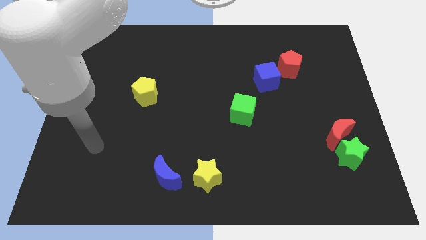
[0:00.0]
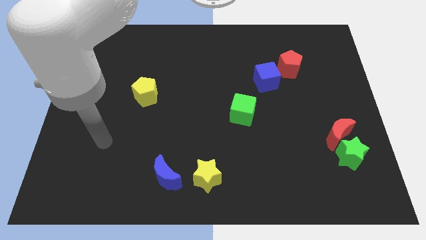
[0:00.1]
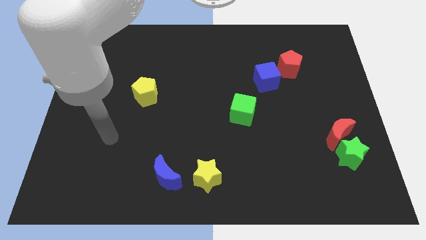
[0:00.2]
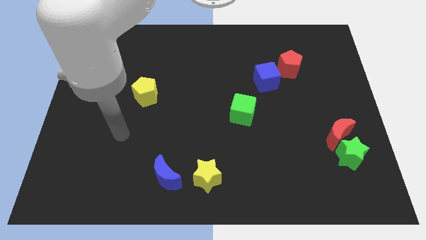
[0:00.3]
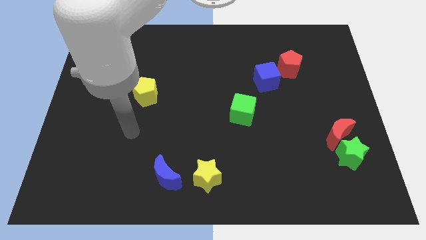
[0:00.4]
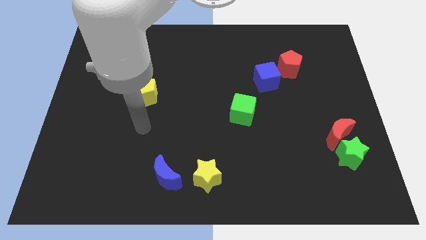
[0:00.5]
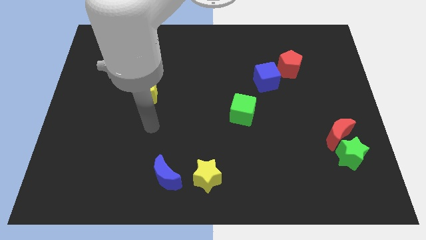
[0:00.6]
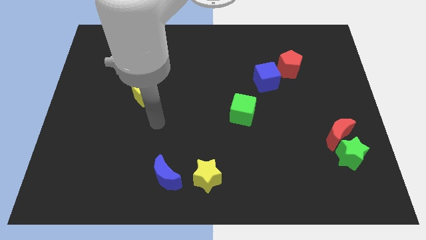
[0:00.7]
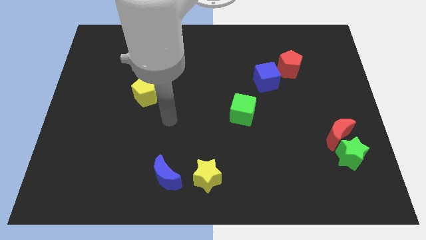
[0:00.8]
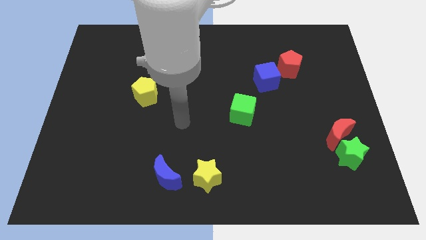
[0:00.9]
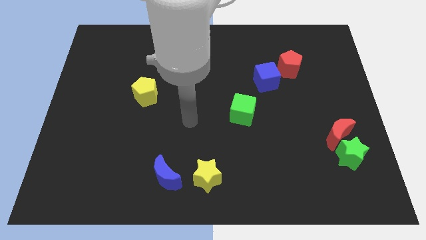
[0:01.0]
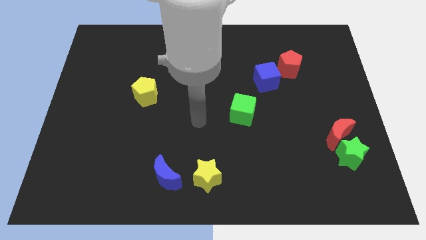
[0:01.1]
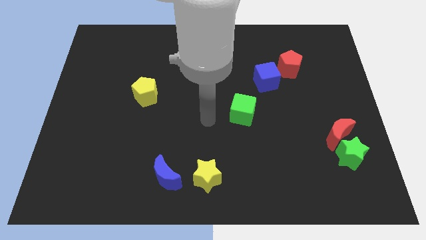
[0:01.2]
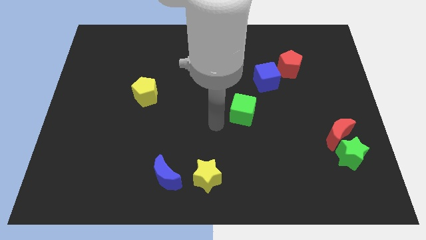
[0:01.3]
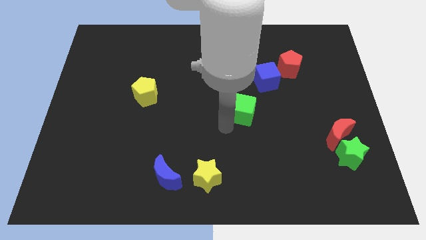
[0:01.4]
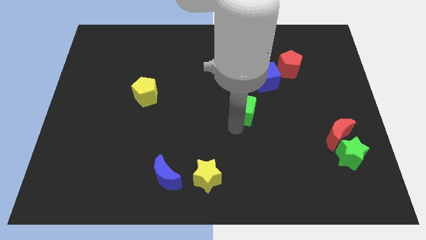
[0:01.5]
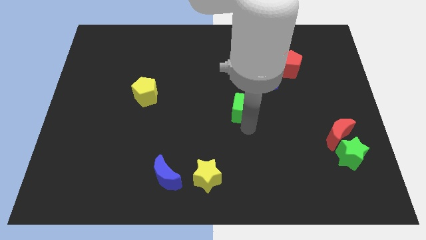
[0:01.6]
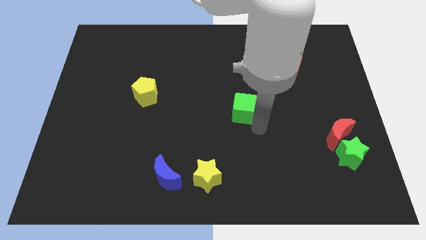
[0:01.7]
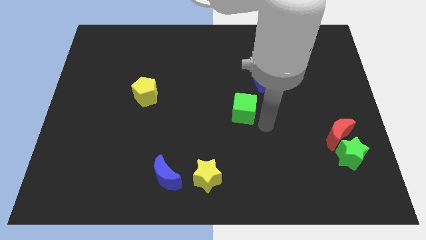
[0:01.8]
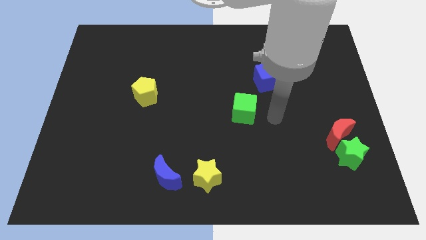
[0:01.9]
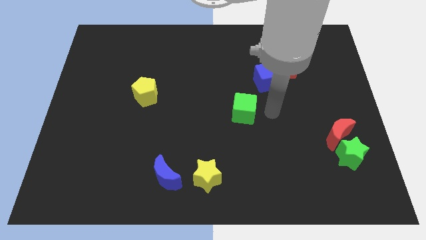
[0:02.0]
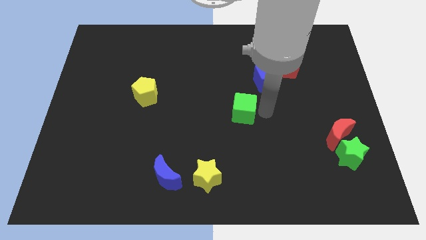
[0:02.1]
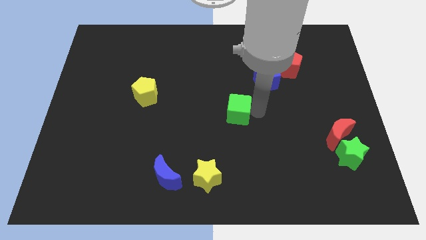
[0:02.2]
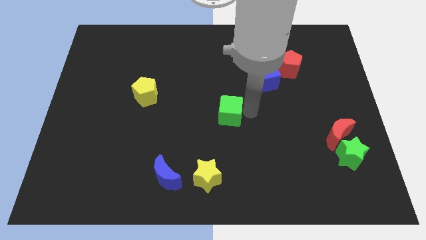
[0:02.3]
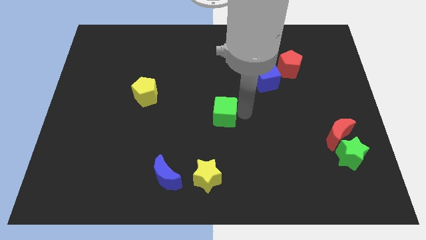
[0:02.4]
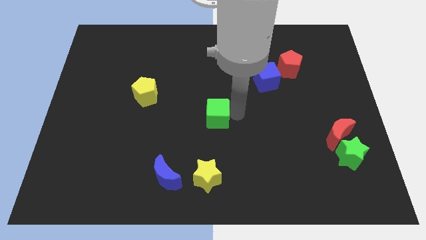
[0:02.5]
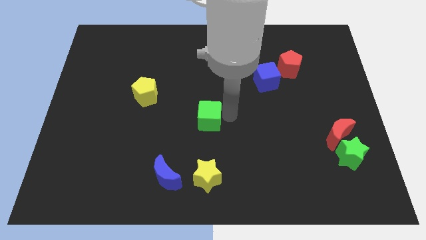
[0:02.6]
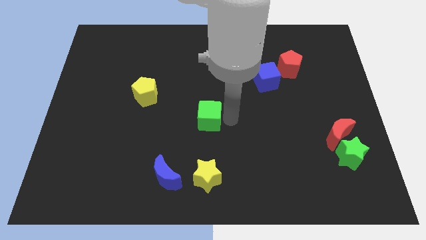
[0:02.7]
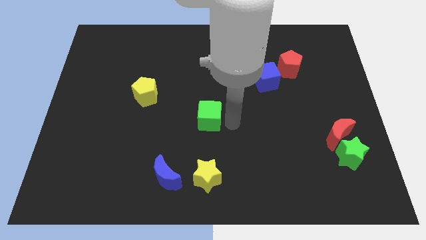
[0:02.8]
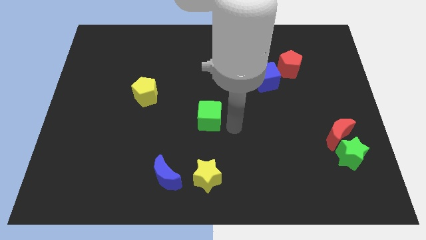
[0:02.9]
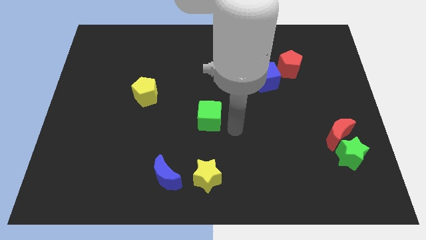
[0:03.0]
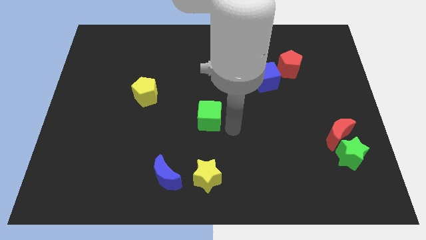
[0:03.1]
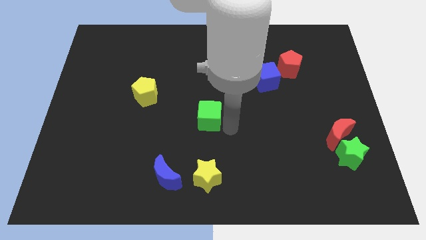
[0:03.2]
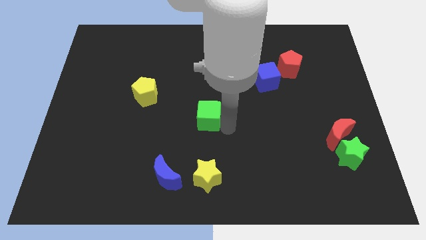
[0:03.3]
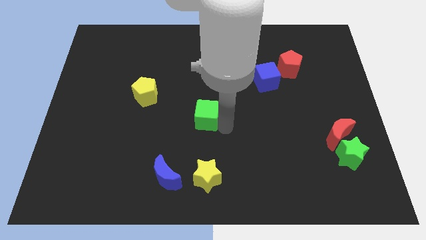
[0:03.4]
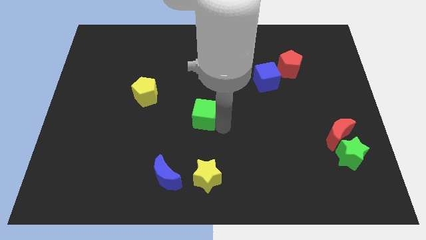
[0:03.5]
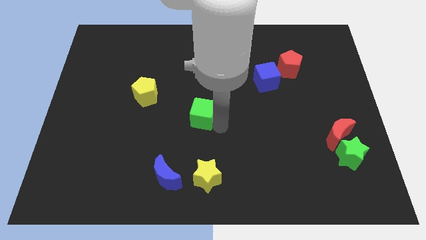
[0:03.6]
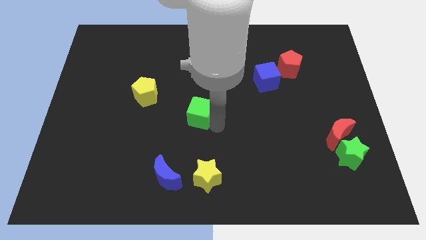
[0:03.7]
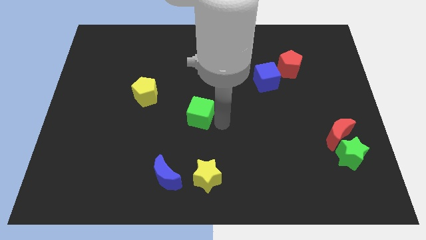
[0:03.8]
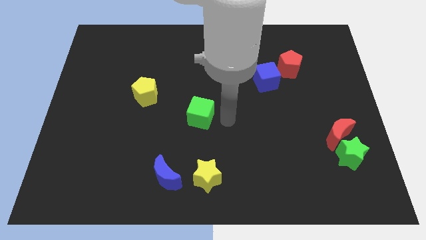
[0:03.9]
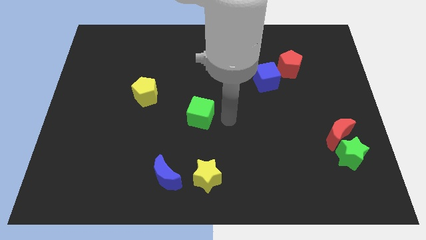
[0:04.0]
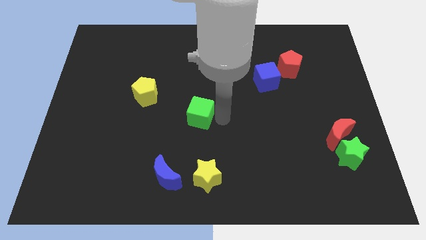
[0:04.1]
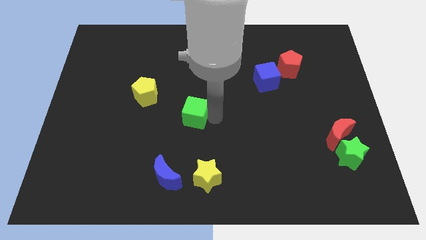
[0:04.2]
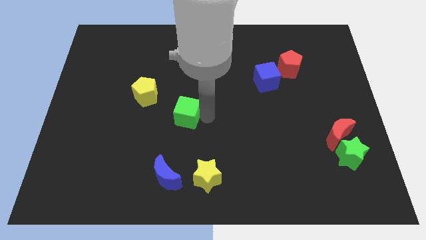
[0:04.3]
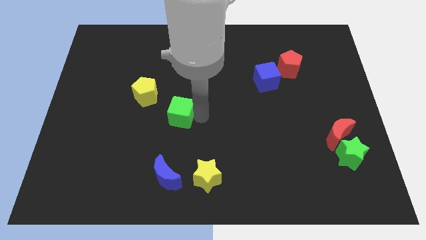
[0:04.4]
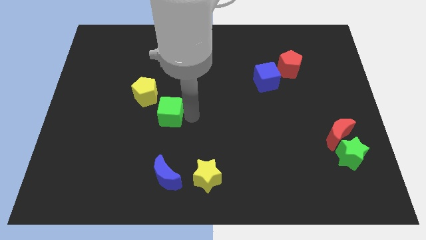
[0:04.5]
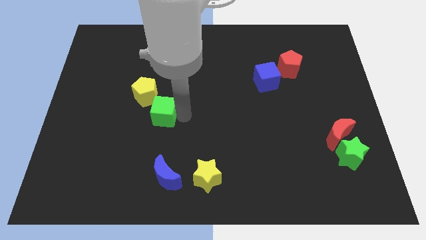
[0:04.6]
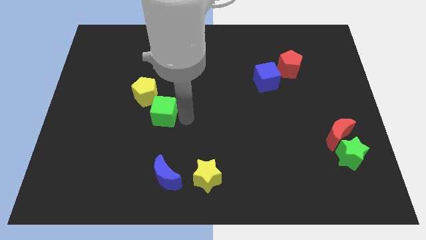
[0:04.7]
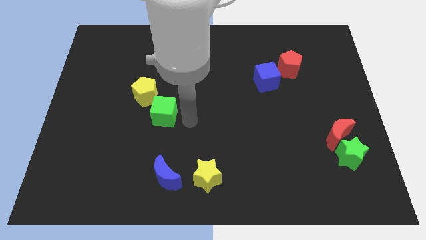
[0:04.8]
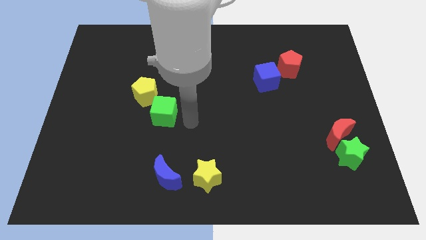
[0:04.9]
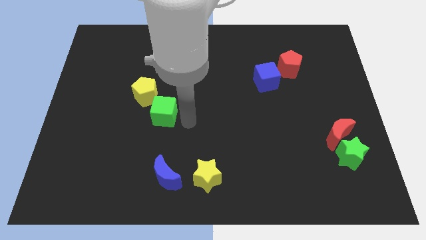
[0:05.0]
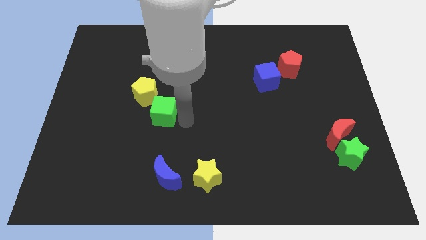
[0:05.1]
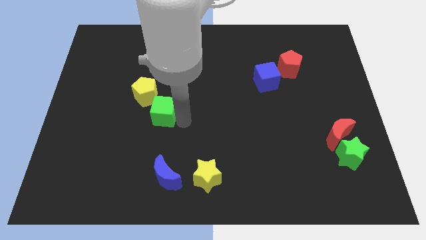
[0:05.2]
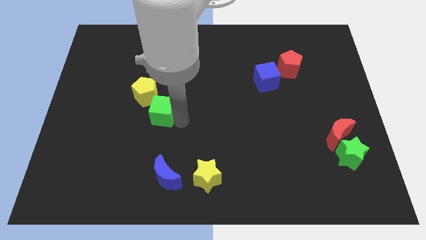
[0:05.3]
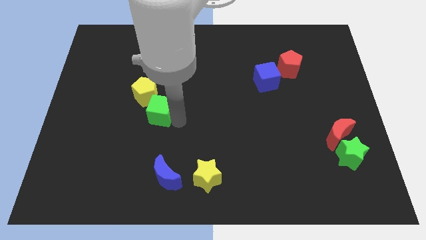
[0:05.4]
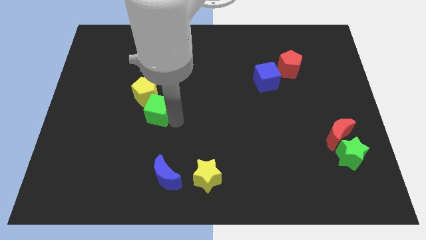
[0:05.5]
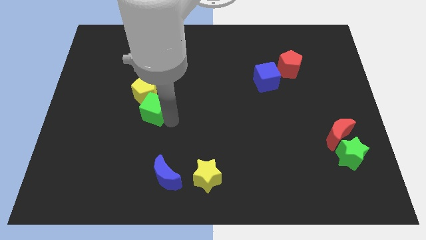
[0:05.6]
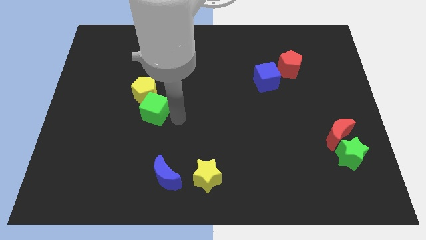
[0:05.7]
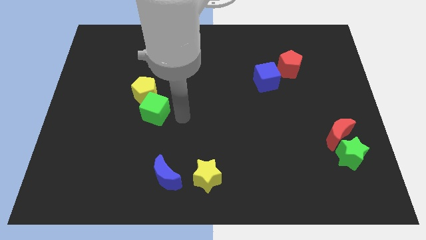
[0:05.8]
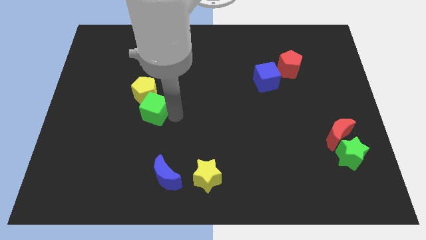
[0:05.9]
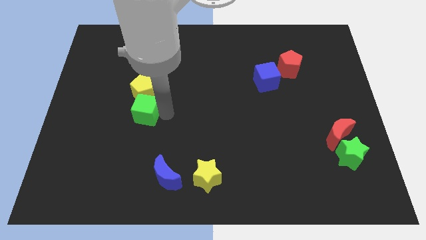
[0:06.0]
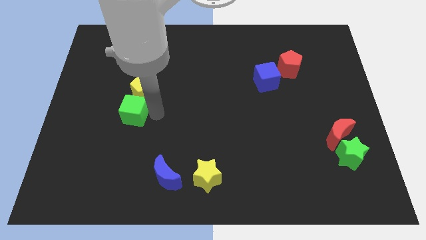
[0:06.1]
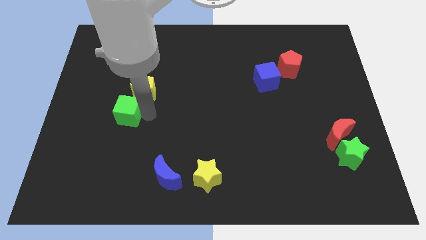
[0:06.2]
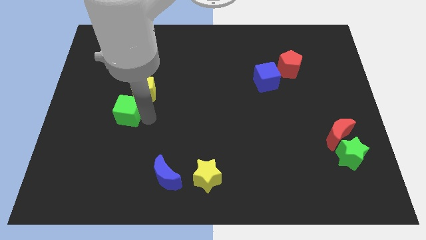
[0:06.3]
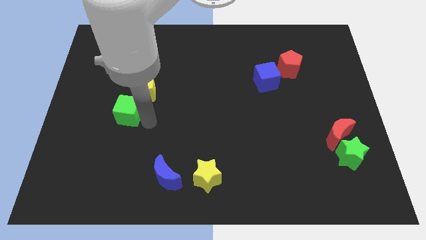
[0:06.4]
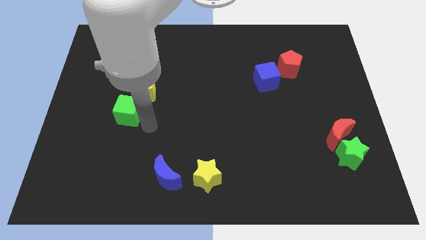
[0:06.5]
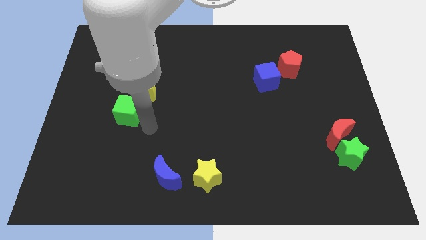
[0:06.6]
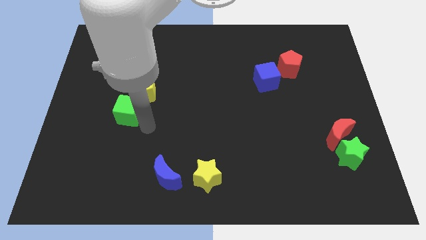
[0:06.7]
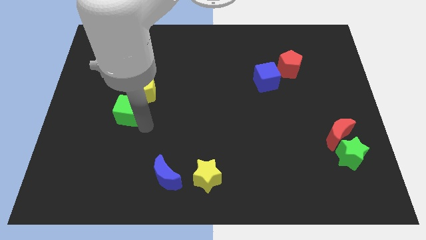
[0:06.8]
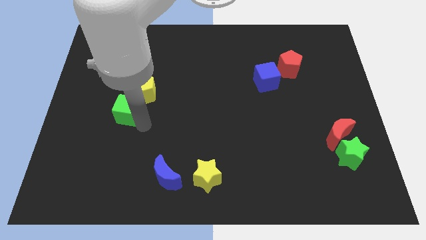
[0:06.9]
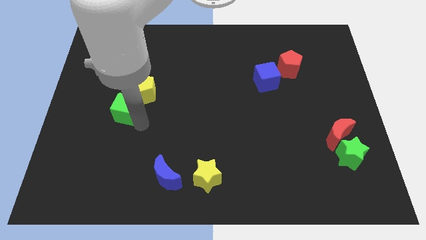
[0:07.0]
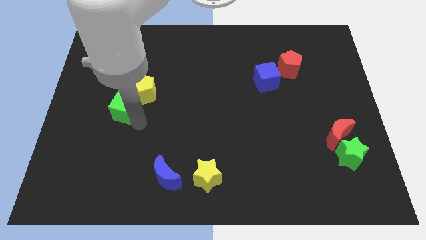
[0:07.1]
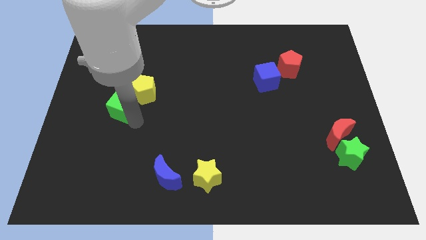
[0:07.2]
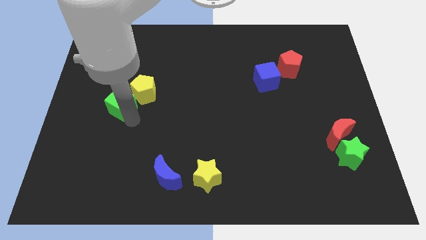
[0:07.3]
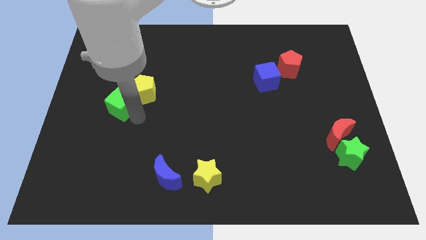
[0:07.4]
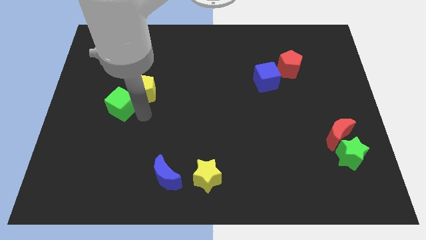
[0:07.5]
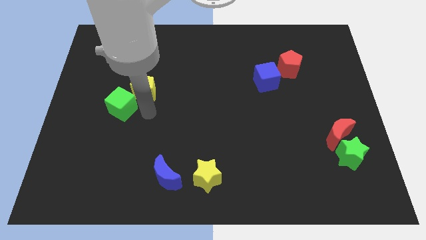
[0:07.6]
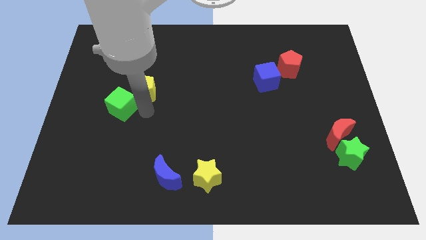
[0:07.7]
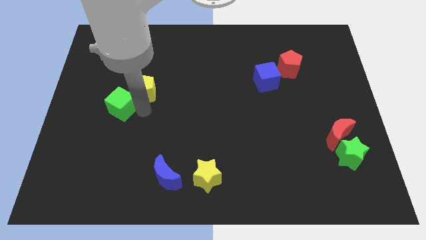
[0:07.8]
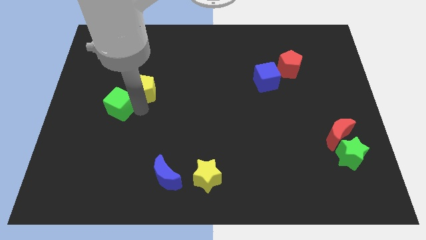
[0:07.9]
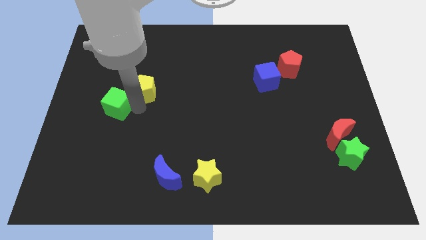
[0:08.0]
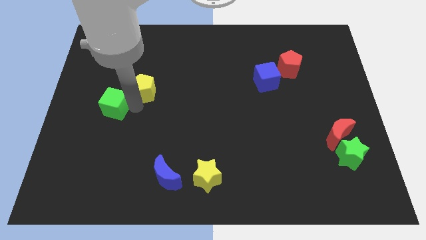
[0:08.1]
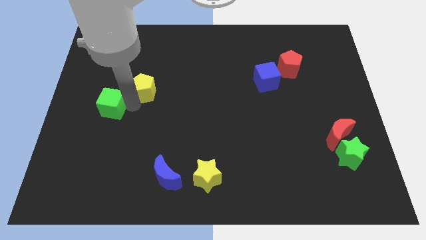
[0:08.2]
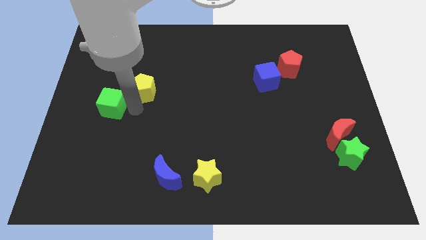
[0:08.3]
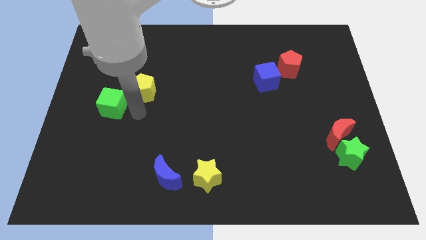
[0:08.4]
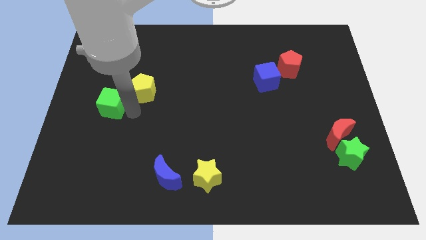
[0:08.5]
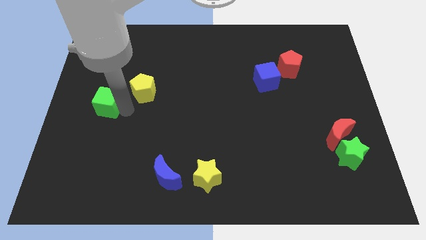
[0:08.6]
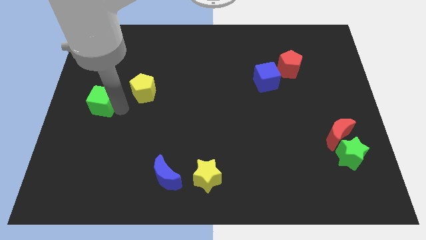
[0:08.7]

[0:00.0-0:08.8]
push the green cube to the left side of the board
